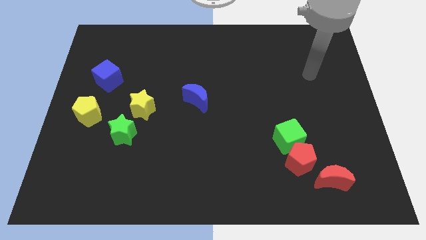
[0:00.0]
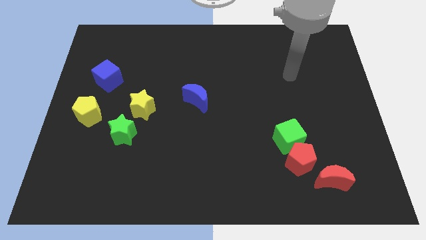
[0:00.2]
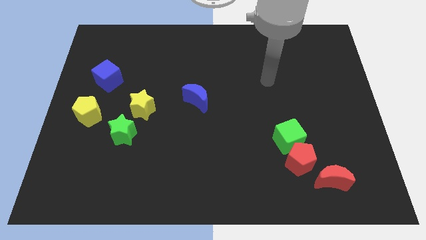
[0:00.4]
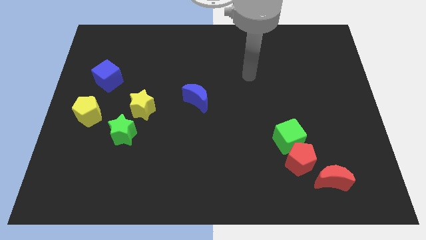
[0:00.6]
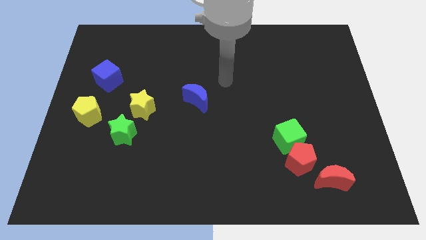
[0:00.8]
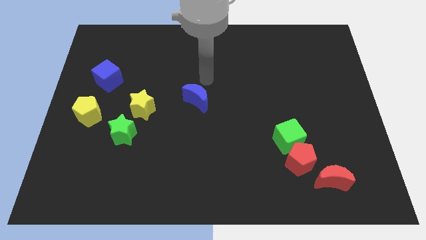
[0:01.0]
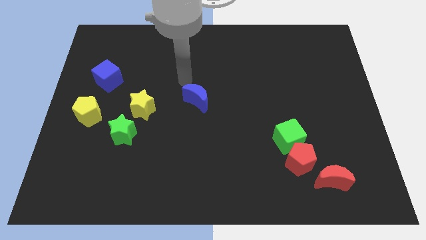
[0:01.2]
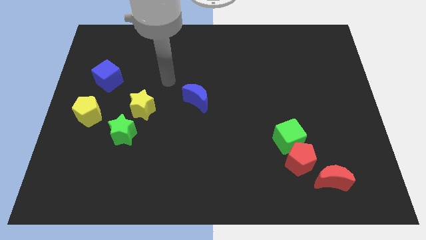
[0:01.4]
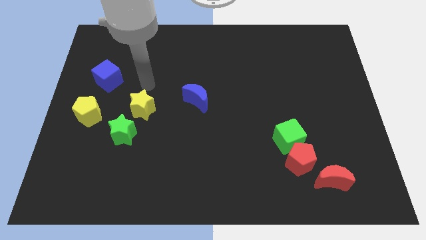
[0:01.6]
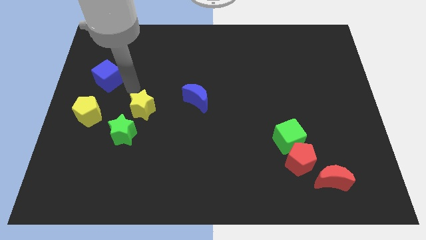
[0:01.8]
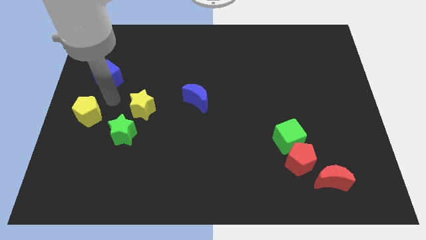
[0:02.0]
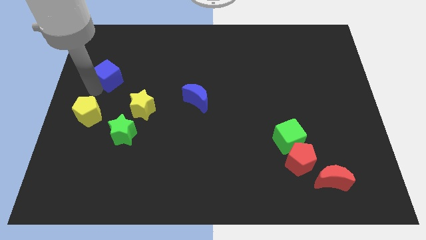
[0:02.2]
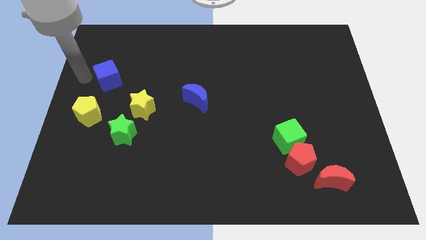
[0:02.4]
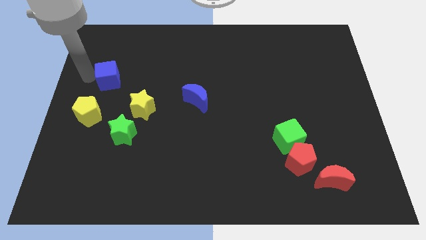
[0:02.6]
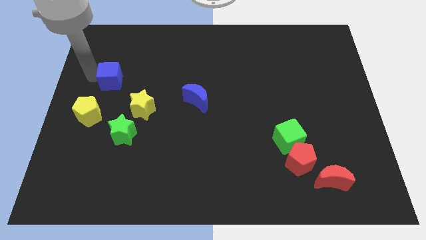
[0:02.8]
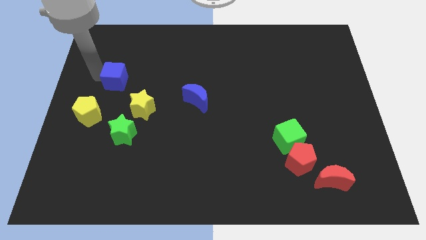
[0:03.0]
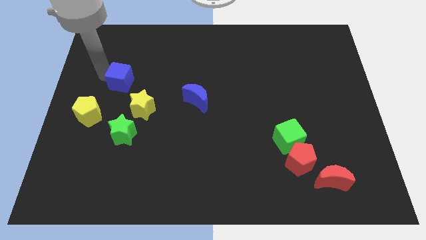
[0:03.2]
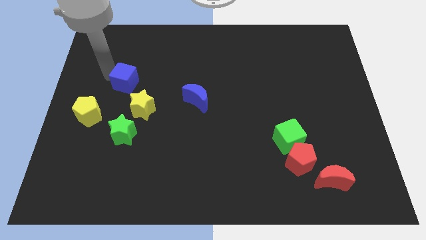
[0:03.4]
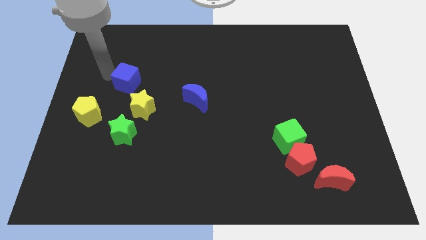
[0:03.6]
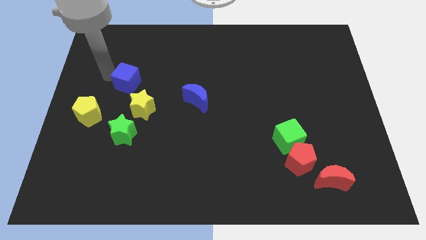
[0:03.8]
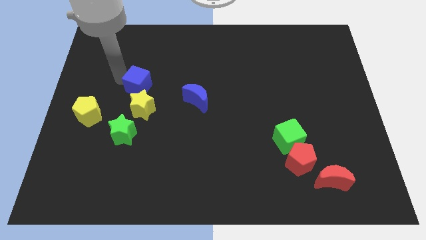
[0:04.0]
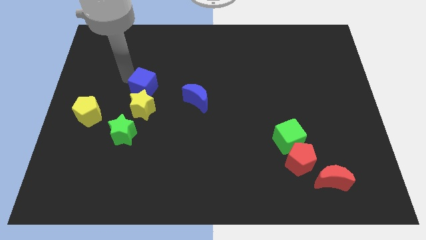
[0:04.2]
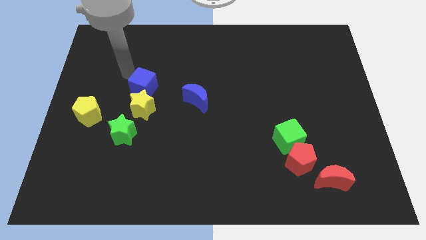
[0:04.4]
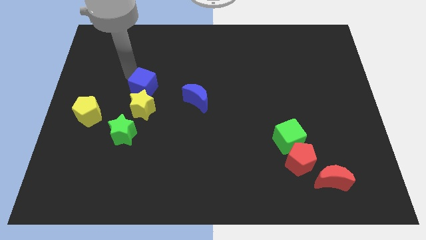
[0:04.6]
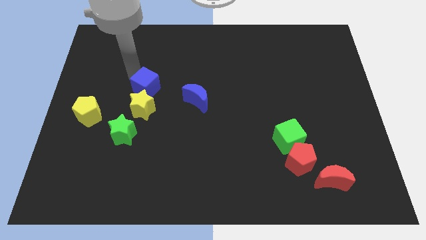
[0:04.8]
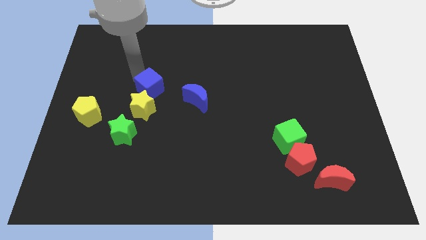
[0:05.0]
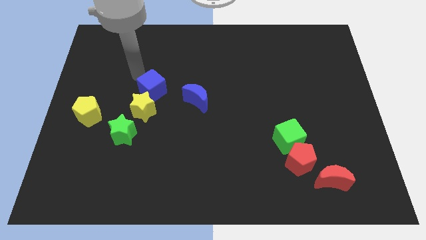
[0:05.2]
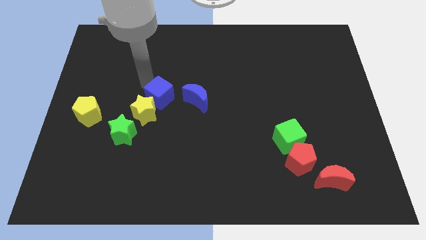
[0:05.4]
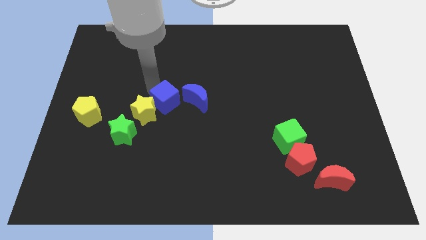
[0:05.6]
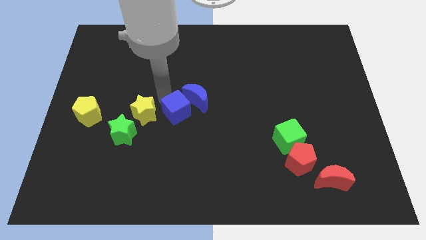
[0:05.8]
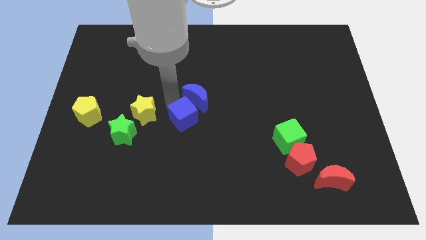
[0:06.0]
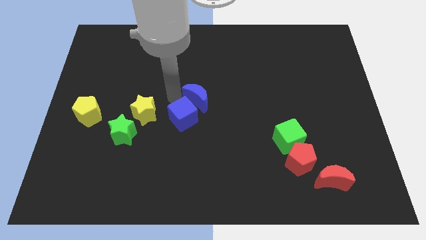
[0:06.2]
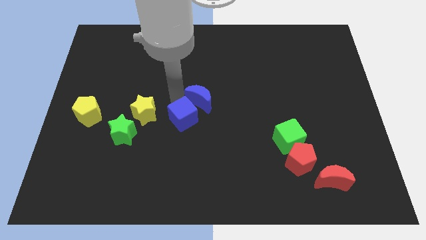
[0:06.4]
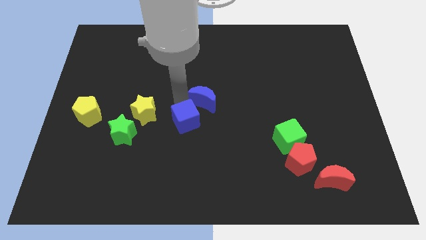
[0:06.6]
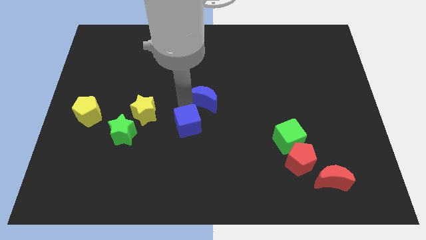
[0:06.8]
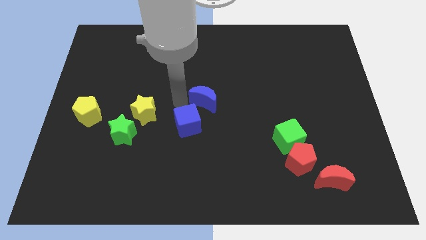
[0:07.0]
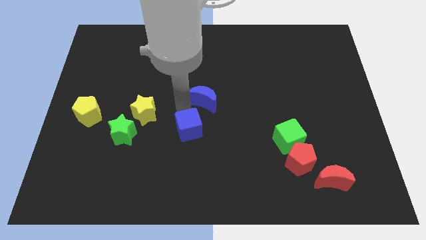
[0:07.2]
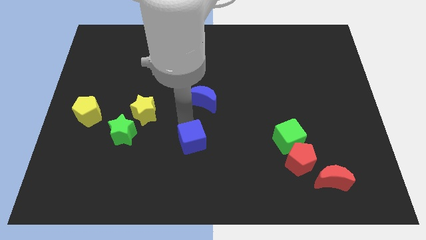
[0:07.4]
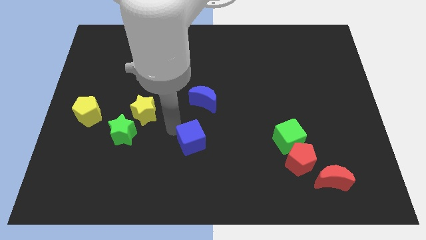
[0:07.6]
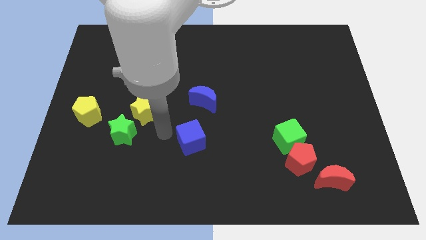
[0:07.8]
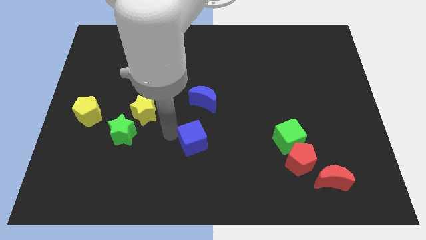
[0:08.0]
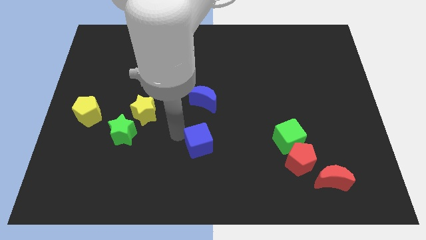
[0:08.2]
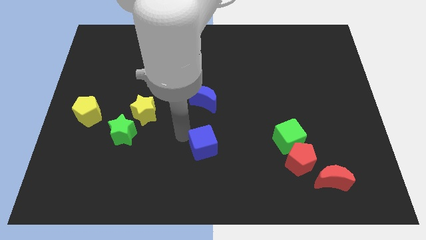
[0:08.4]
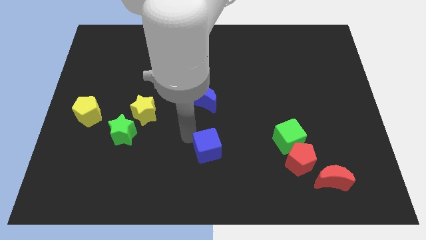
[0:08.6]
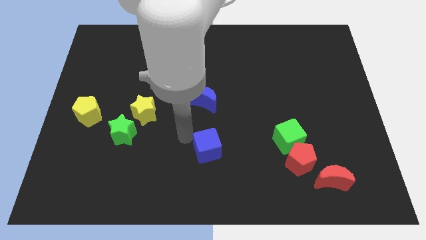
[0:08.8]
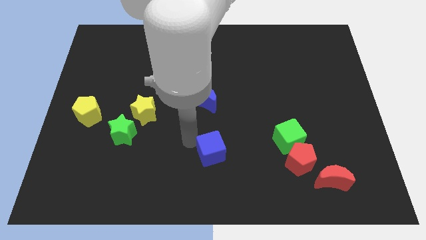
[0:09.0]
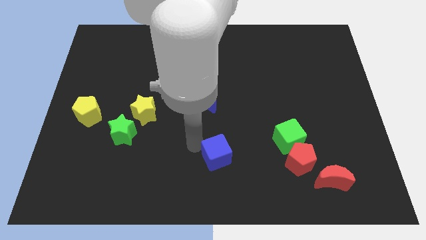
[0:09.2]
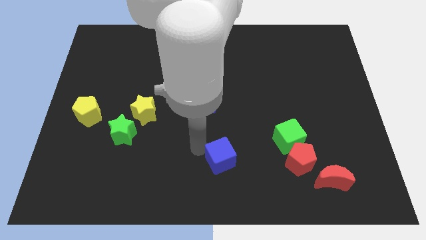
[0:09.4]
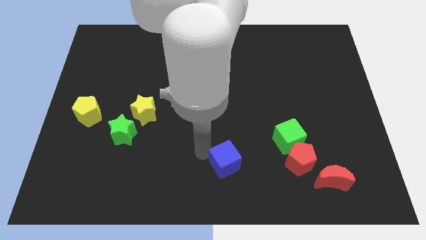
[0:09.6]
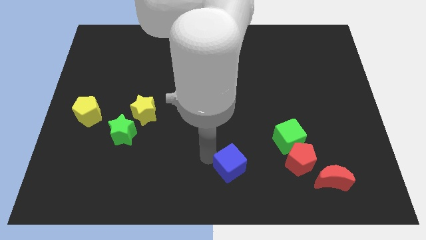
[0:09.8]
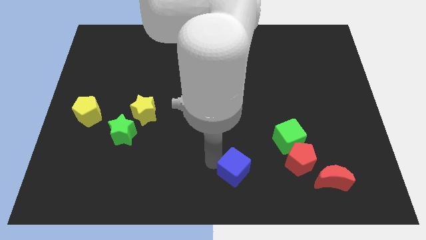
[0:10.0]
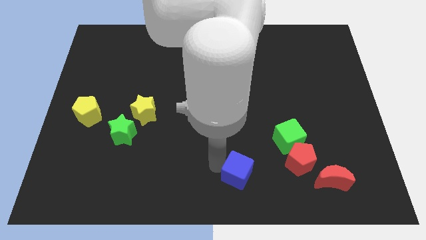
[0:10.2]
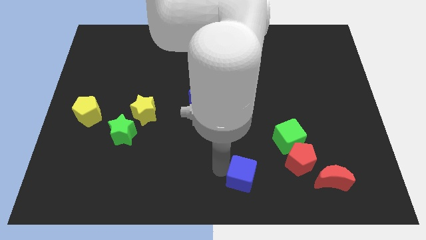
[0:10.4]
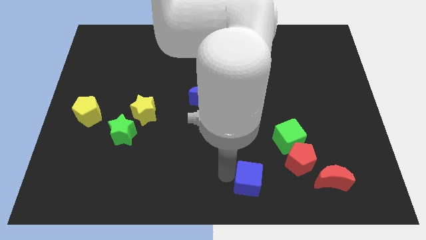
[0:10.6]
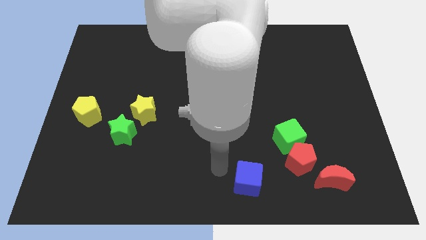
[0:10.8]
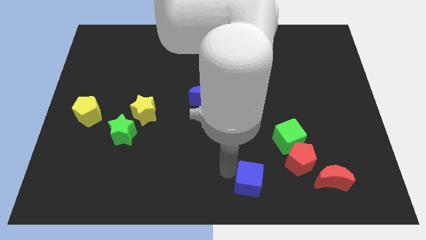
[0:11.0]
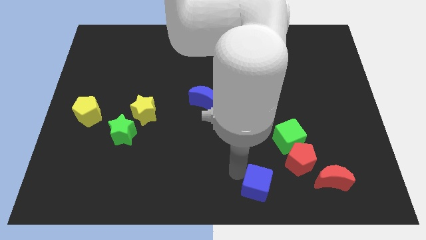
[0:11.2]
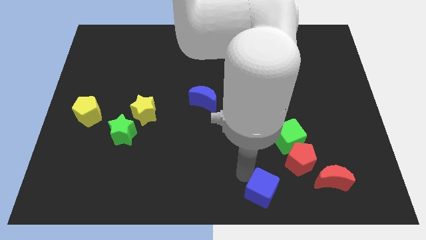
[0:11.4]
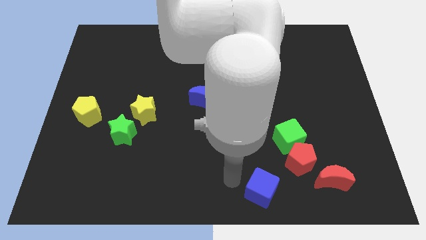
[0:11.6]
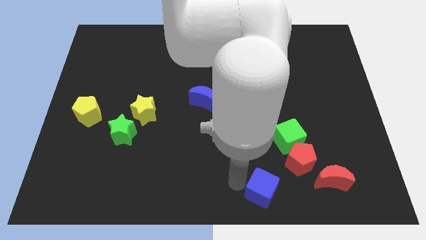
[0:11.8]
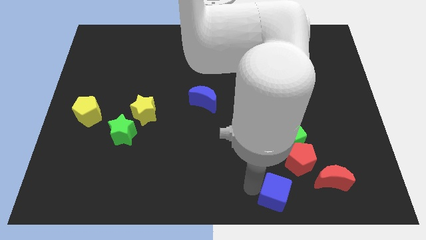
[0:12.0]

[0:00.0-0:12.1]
slide the blue cube to the bottom of the green cube

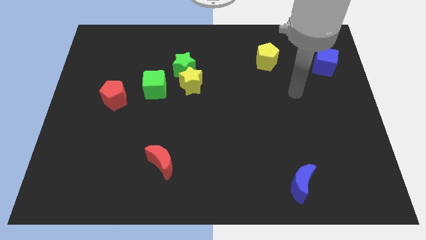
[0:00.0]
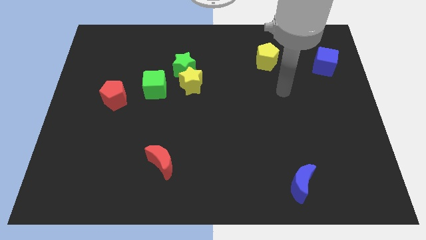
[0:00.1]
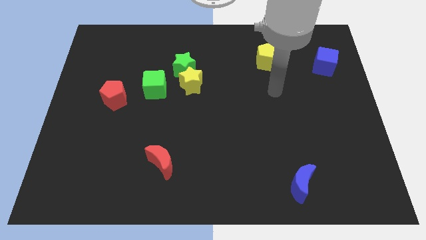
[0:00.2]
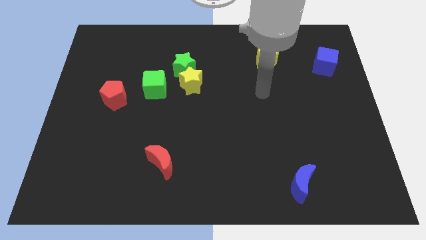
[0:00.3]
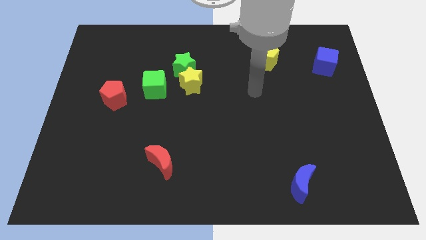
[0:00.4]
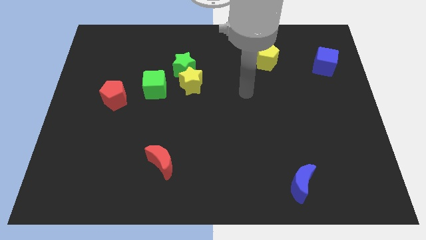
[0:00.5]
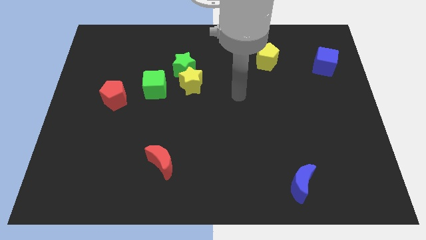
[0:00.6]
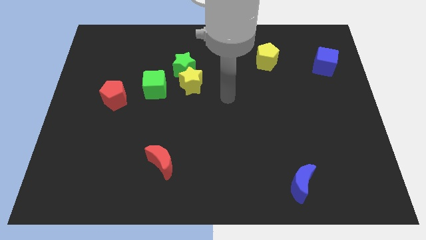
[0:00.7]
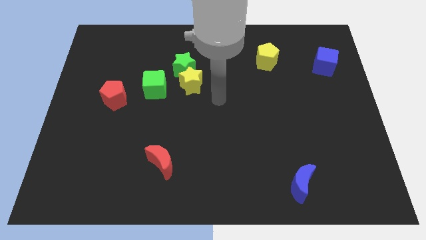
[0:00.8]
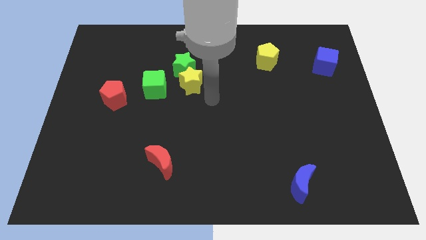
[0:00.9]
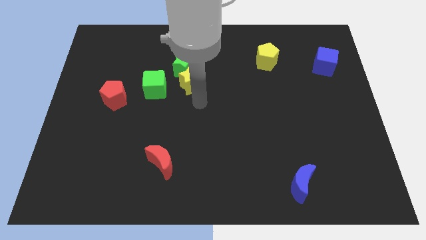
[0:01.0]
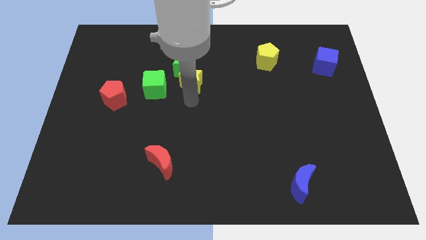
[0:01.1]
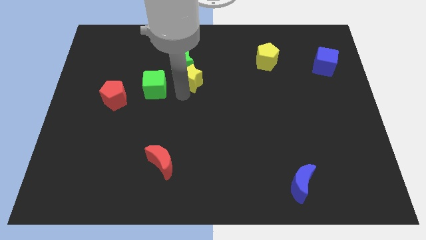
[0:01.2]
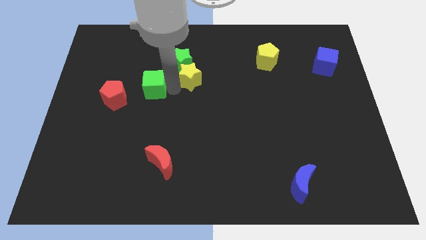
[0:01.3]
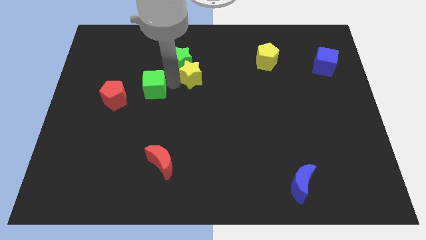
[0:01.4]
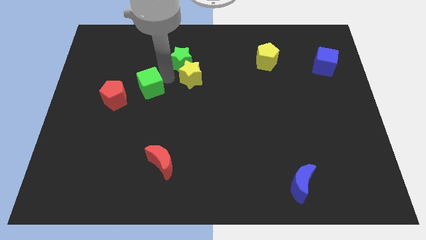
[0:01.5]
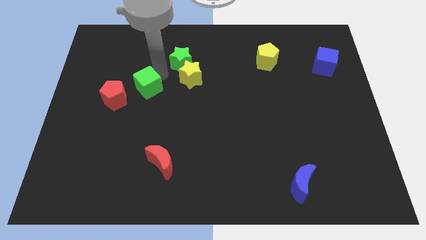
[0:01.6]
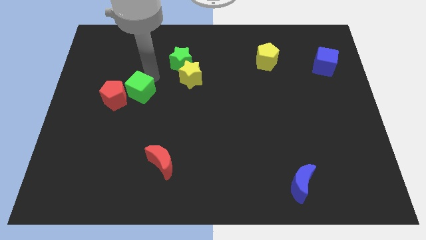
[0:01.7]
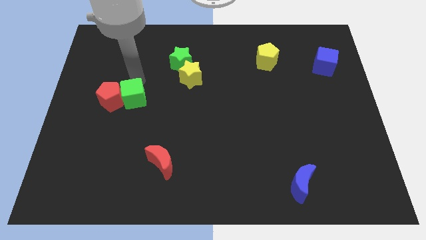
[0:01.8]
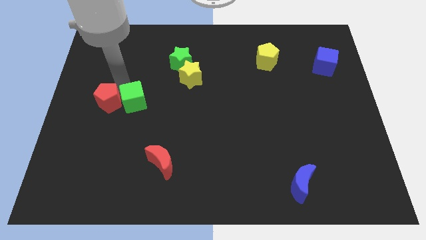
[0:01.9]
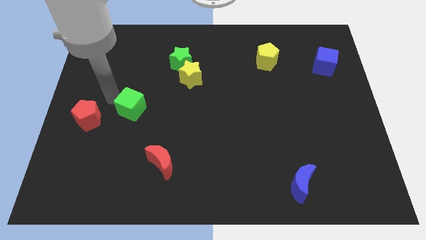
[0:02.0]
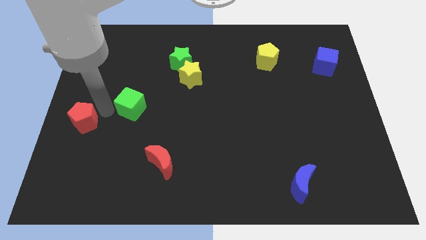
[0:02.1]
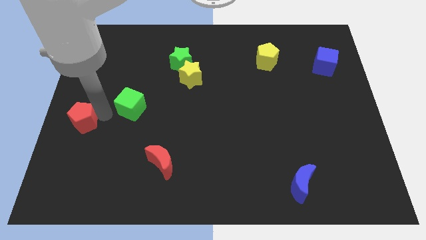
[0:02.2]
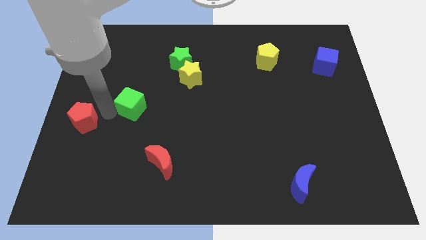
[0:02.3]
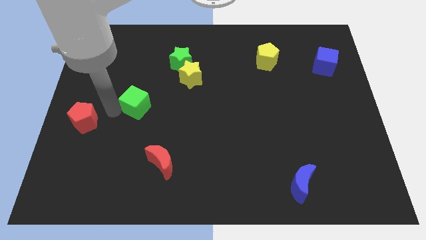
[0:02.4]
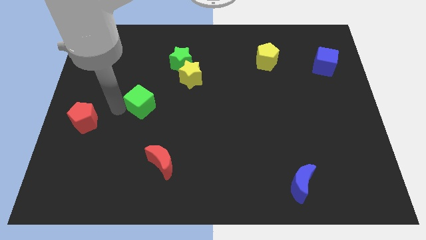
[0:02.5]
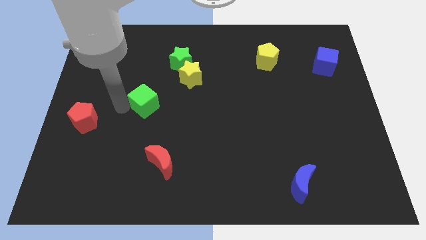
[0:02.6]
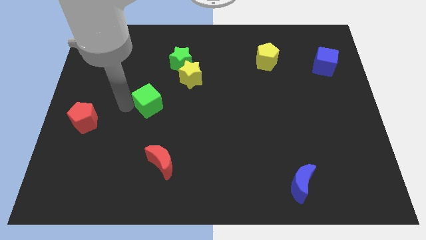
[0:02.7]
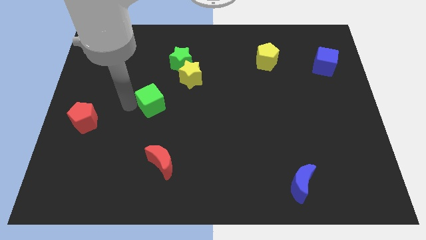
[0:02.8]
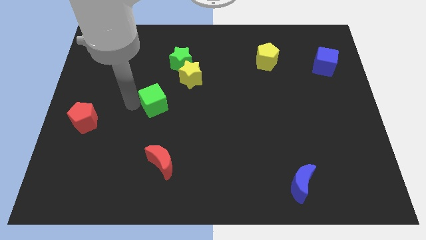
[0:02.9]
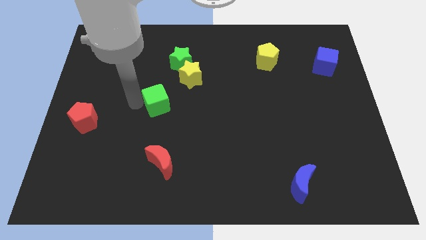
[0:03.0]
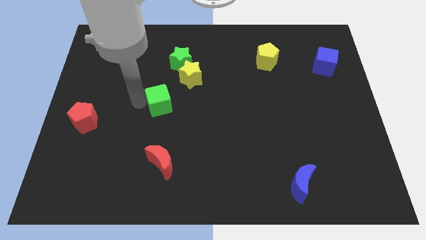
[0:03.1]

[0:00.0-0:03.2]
move the green cube to the bottom side of the green star
